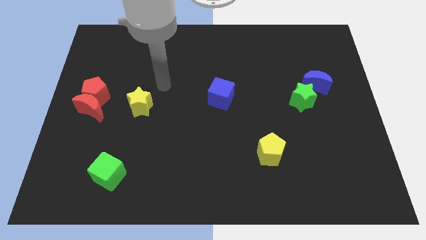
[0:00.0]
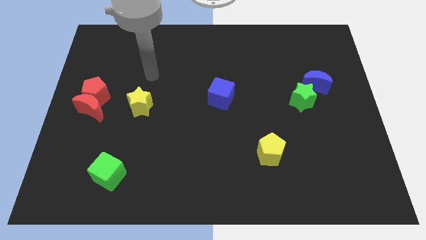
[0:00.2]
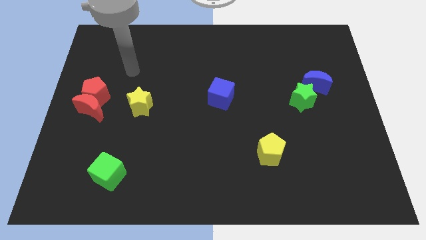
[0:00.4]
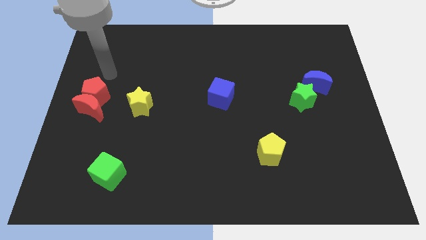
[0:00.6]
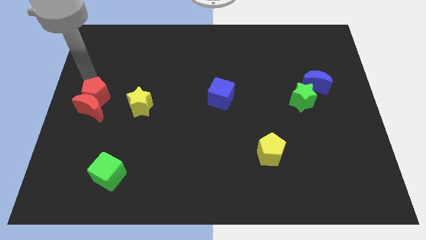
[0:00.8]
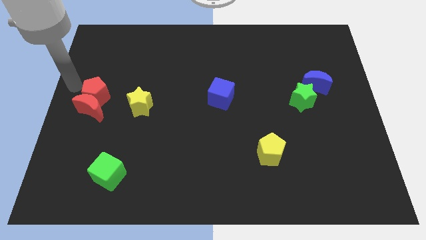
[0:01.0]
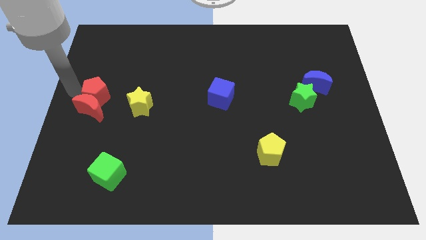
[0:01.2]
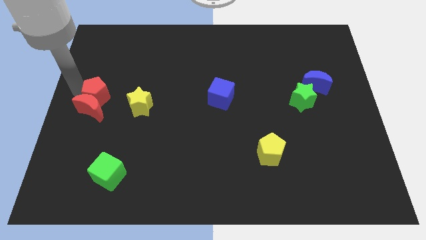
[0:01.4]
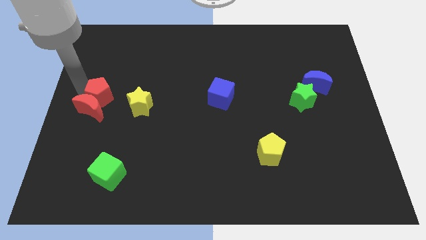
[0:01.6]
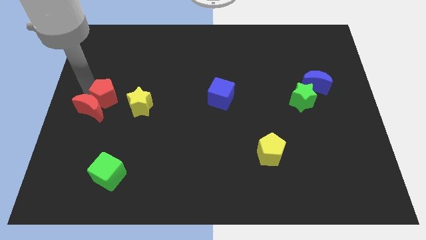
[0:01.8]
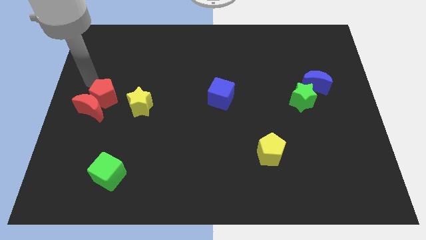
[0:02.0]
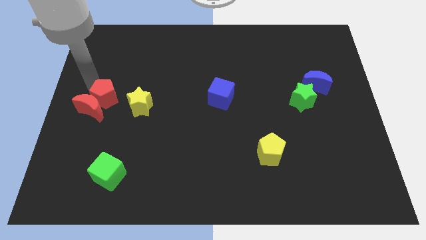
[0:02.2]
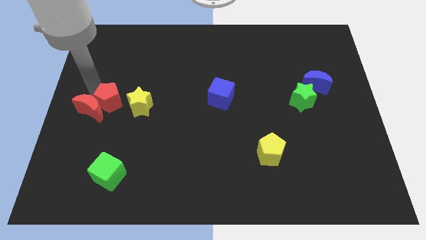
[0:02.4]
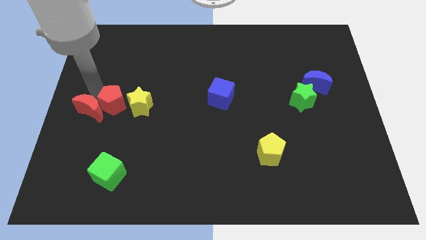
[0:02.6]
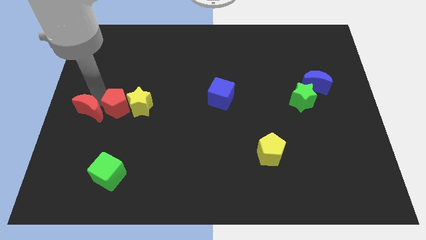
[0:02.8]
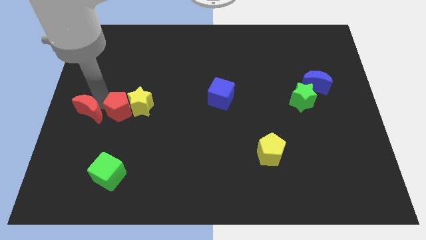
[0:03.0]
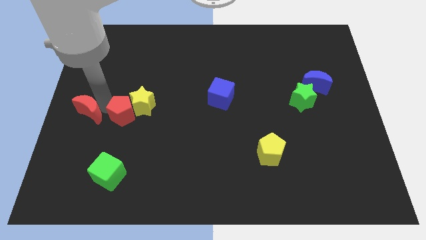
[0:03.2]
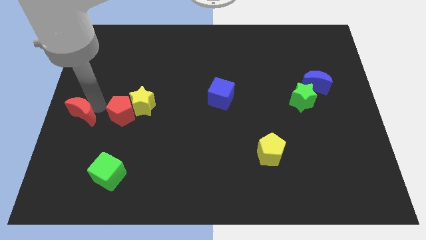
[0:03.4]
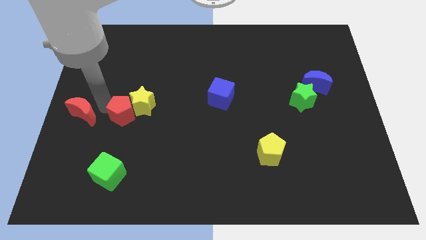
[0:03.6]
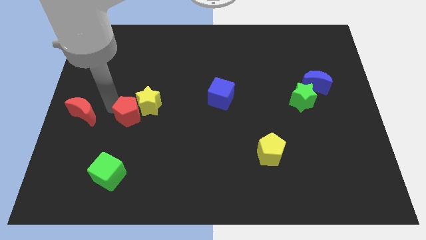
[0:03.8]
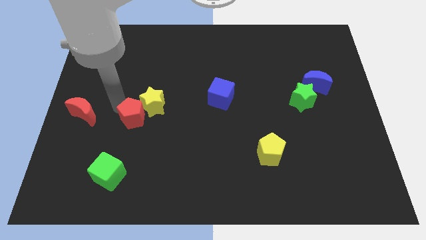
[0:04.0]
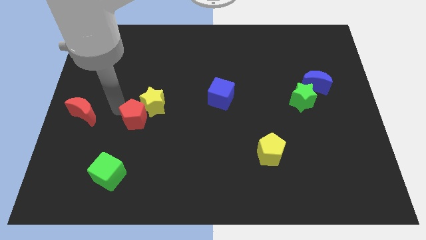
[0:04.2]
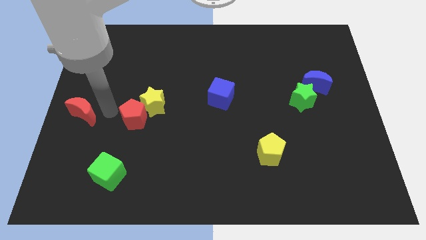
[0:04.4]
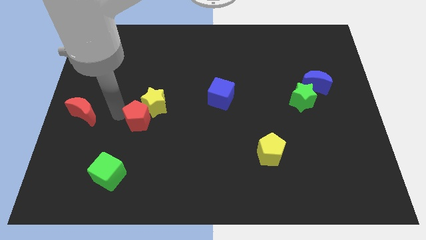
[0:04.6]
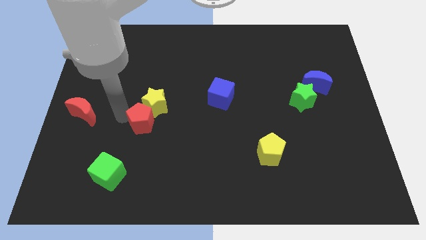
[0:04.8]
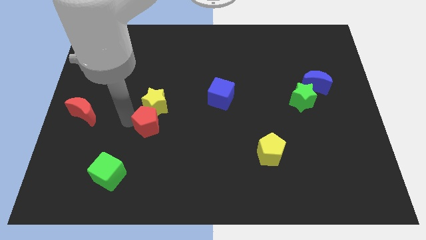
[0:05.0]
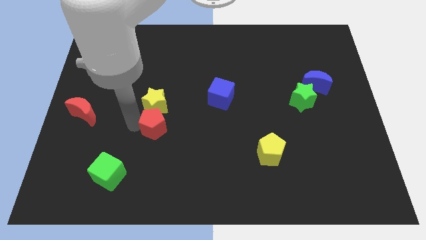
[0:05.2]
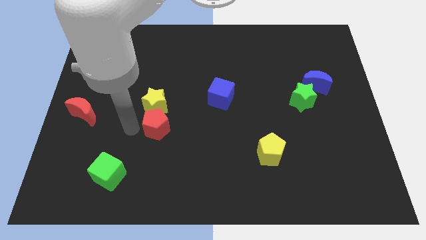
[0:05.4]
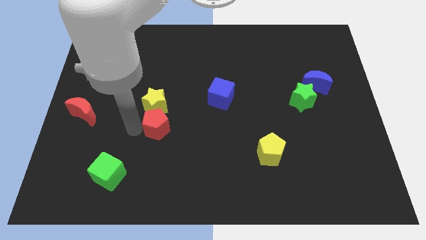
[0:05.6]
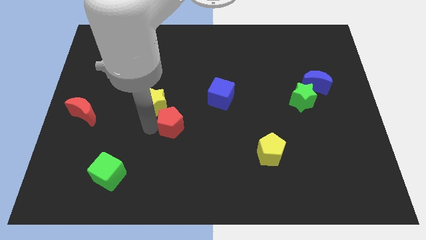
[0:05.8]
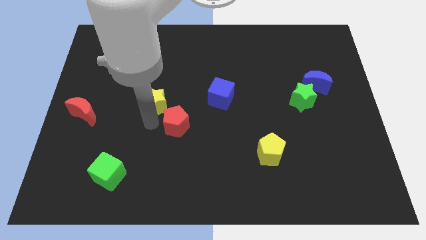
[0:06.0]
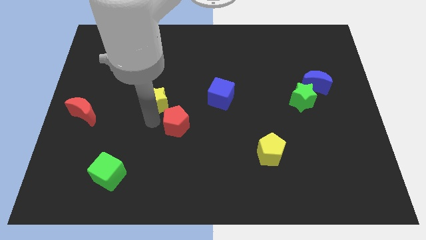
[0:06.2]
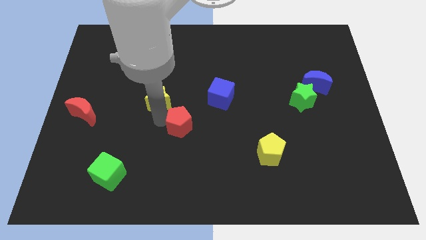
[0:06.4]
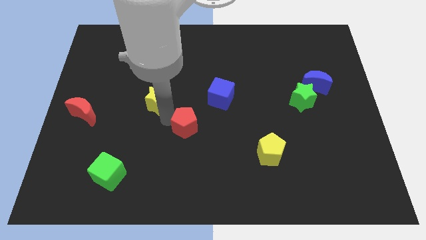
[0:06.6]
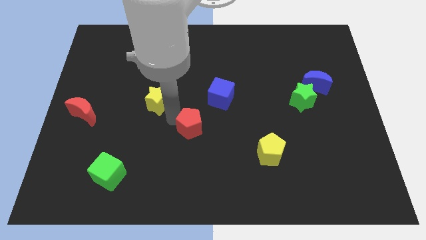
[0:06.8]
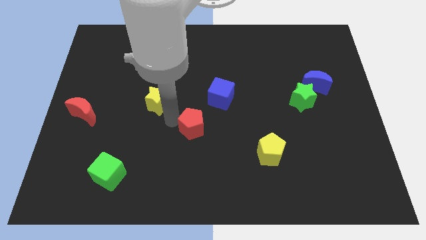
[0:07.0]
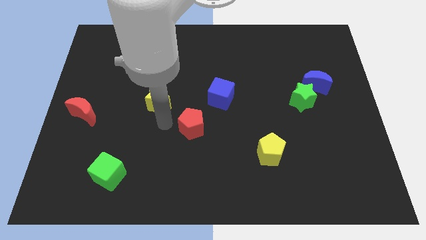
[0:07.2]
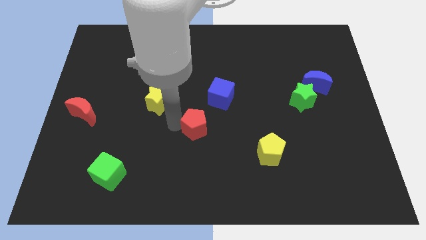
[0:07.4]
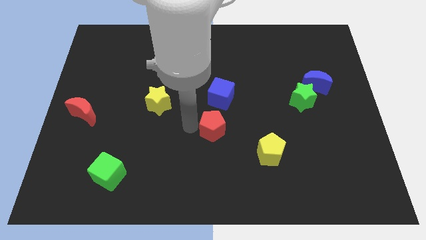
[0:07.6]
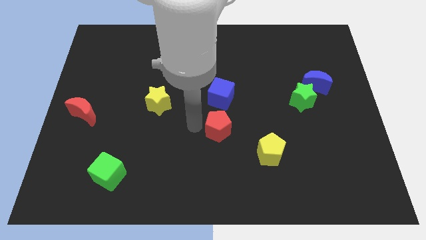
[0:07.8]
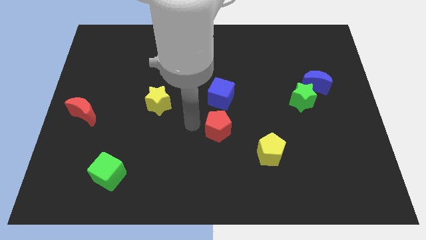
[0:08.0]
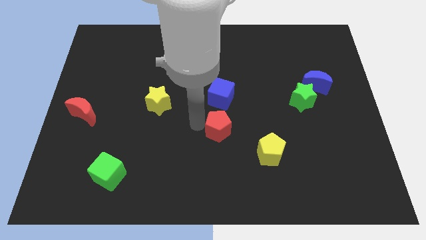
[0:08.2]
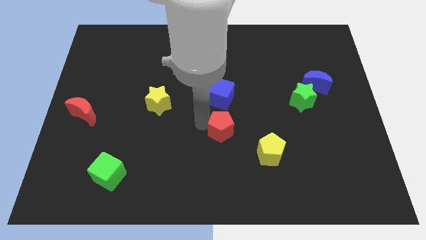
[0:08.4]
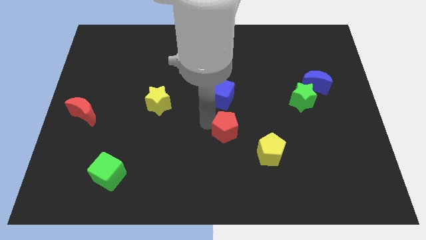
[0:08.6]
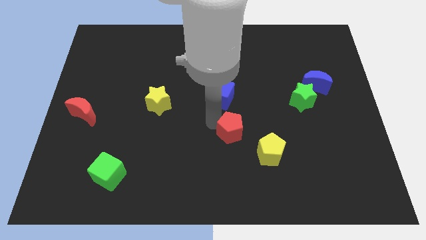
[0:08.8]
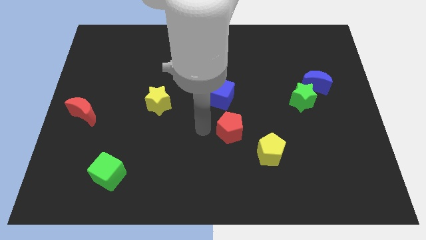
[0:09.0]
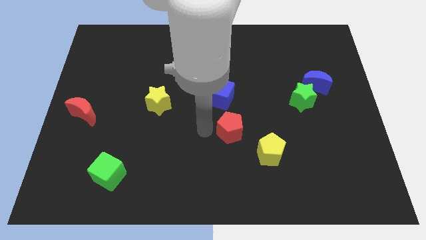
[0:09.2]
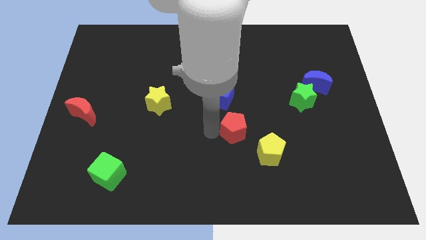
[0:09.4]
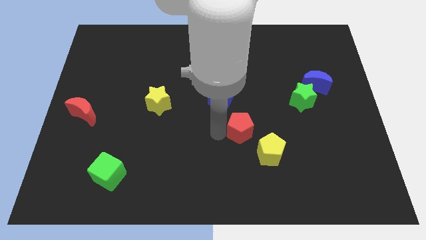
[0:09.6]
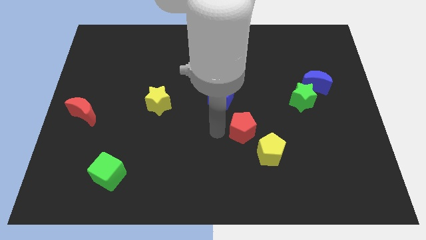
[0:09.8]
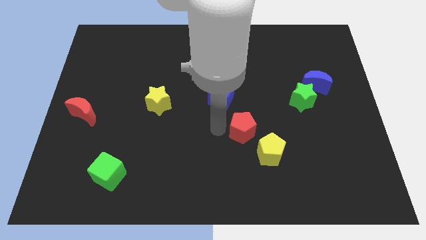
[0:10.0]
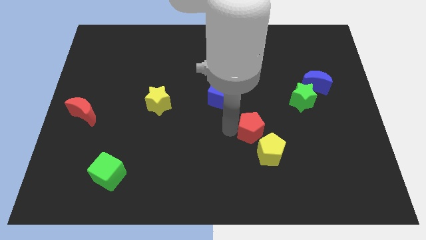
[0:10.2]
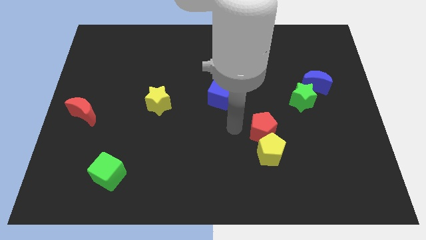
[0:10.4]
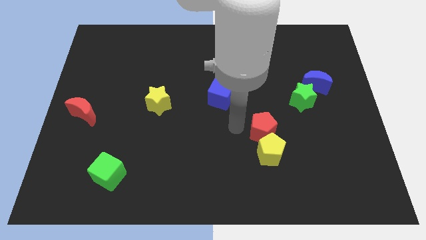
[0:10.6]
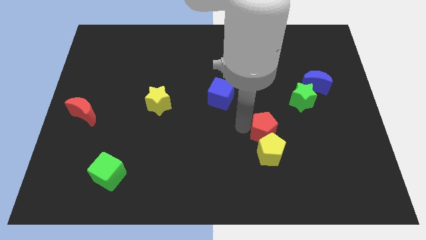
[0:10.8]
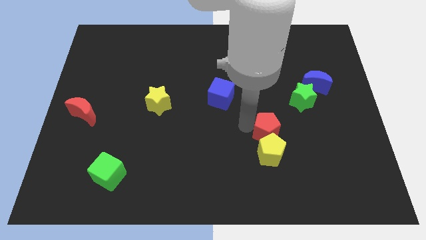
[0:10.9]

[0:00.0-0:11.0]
push the red pentagon diagonally up and to the right of the yellow pentagon

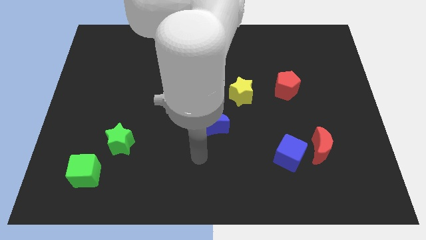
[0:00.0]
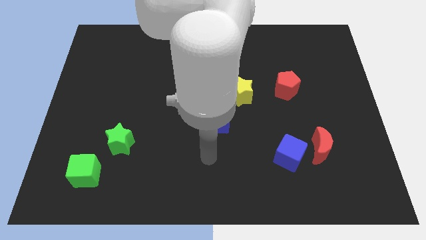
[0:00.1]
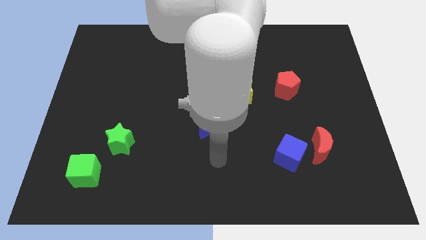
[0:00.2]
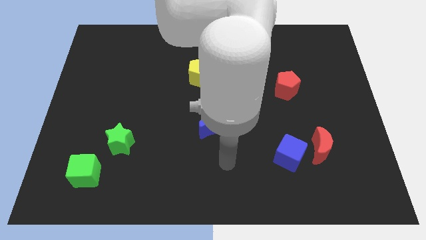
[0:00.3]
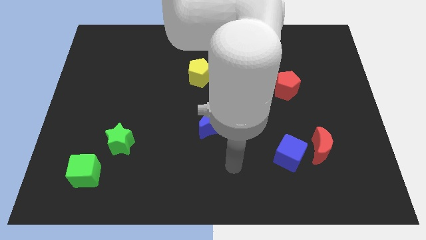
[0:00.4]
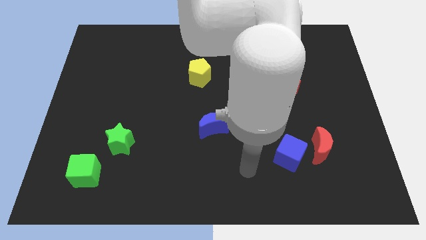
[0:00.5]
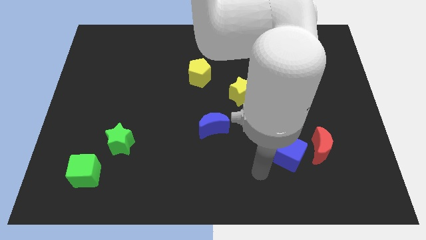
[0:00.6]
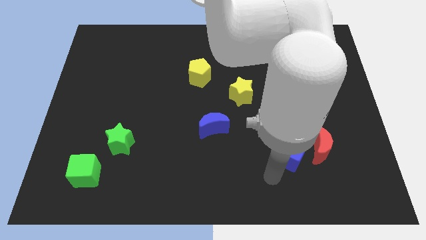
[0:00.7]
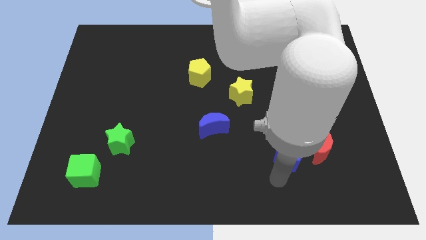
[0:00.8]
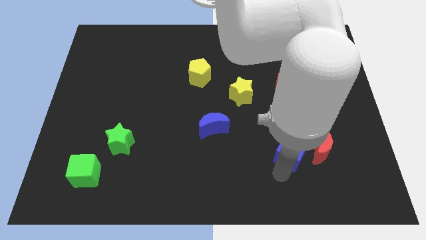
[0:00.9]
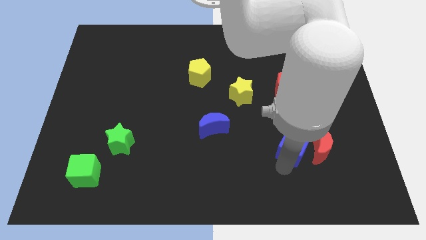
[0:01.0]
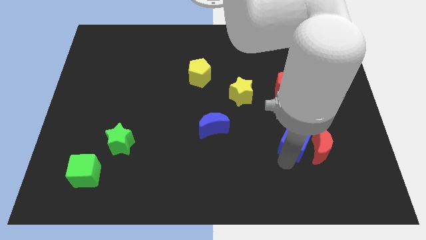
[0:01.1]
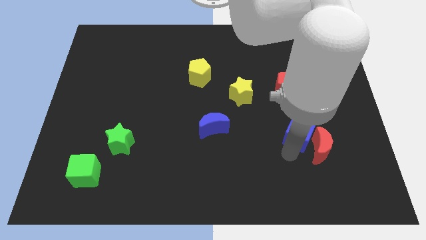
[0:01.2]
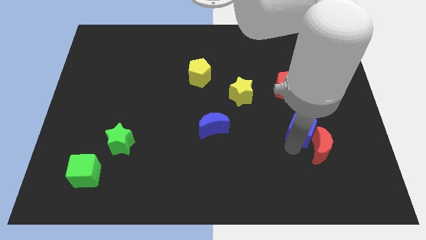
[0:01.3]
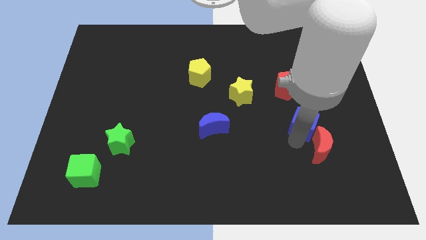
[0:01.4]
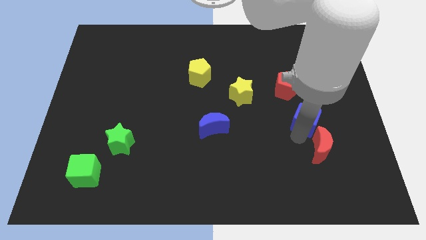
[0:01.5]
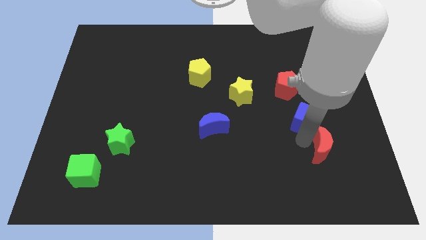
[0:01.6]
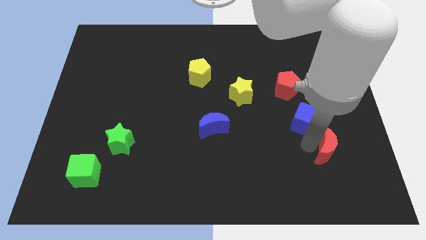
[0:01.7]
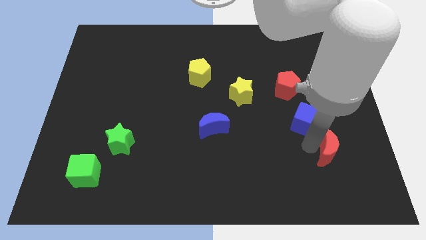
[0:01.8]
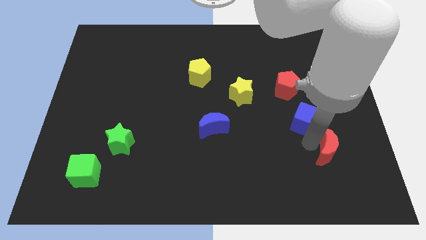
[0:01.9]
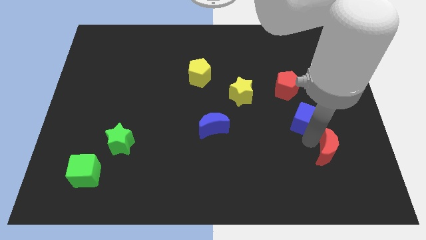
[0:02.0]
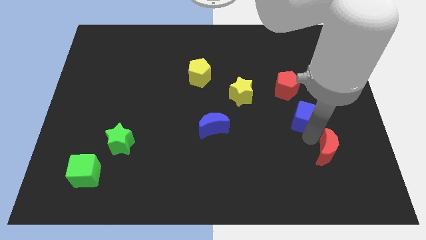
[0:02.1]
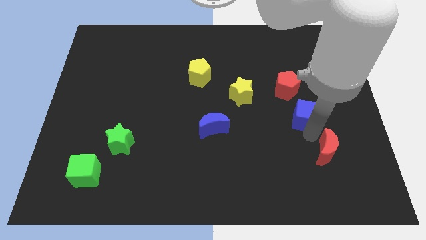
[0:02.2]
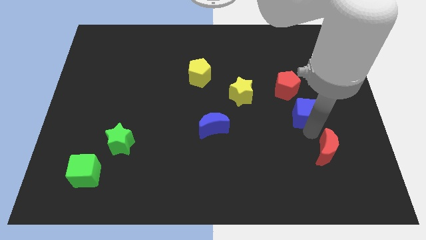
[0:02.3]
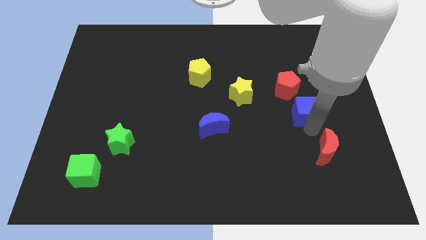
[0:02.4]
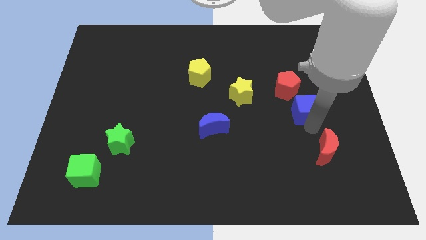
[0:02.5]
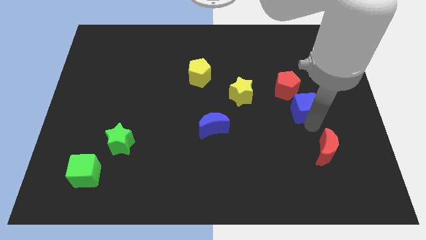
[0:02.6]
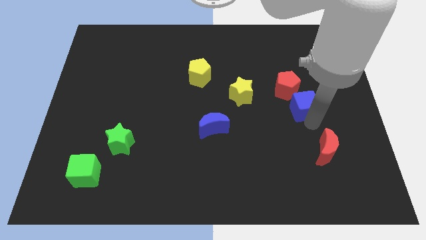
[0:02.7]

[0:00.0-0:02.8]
slide the blue cube just right of the yellow star
